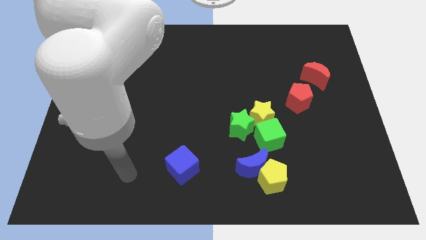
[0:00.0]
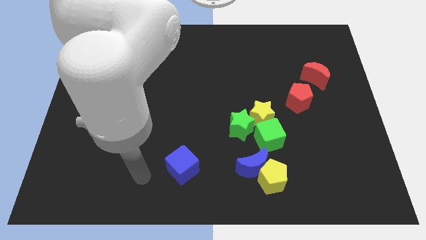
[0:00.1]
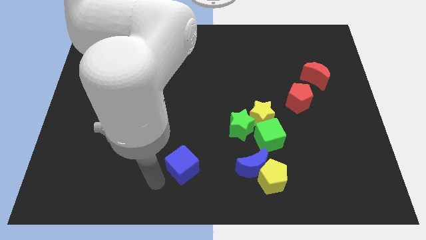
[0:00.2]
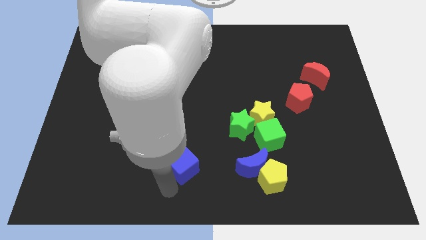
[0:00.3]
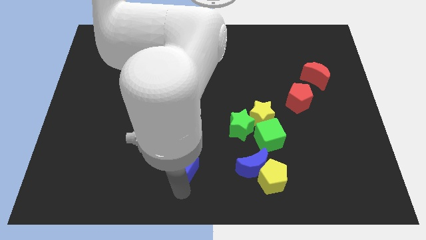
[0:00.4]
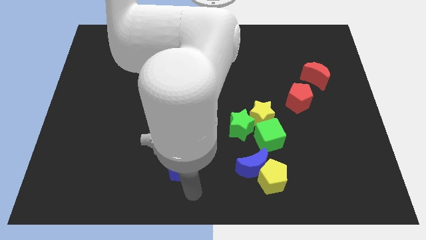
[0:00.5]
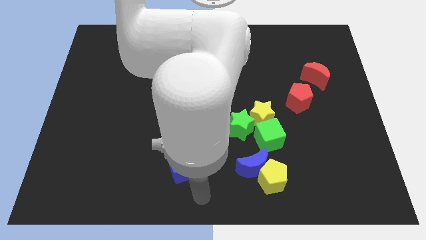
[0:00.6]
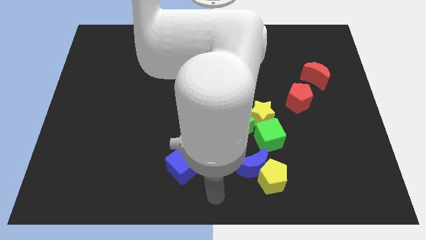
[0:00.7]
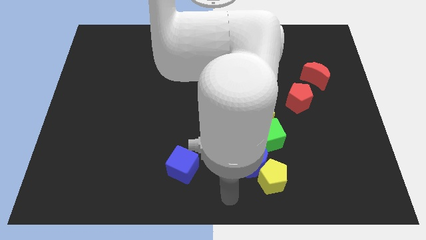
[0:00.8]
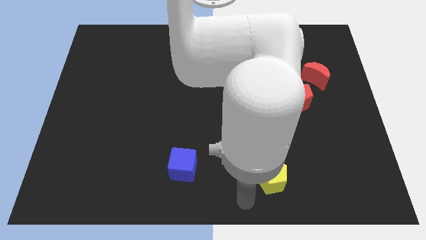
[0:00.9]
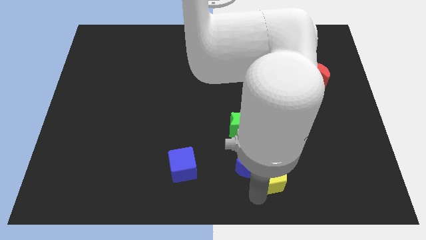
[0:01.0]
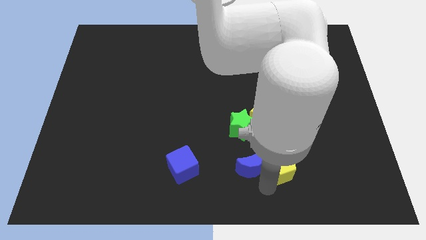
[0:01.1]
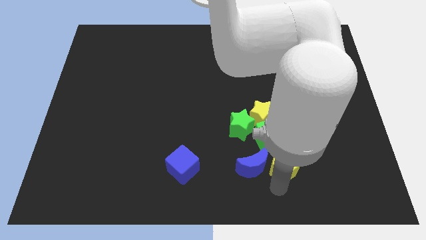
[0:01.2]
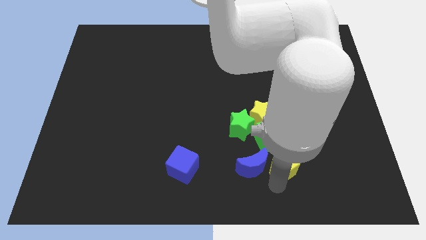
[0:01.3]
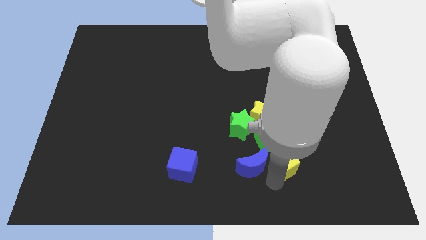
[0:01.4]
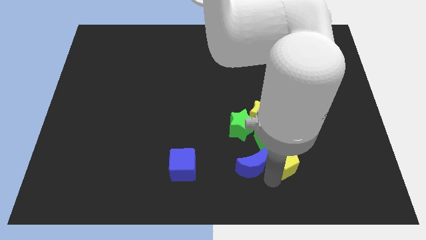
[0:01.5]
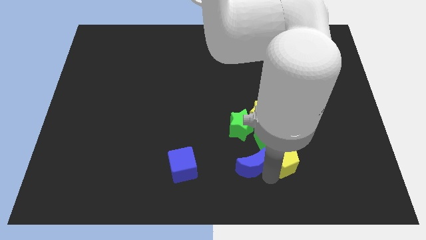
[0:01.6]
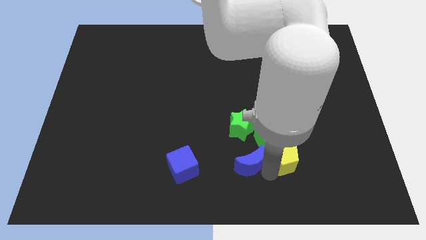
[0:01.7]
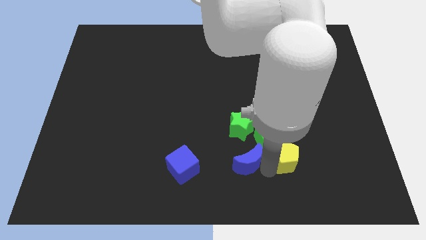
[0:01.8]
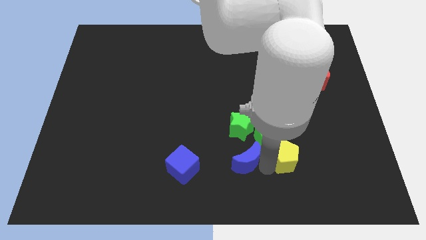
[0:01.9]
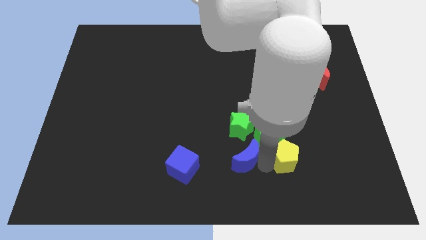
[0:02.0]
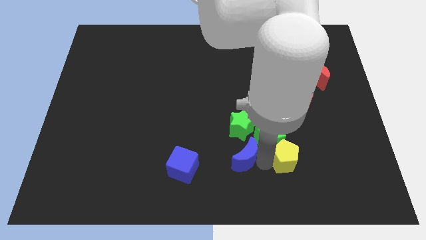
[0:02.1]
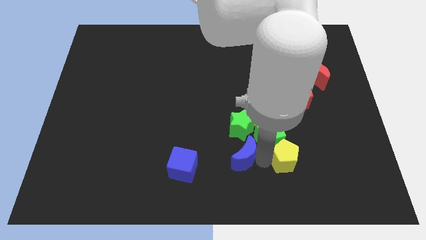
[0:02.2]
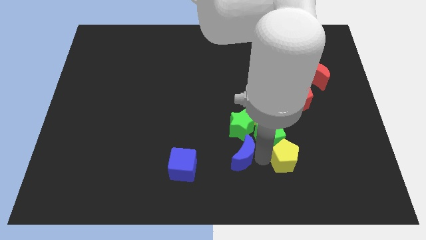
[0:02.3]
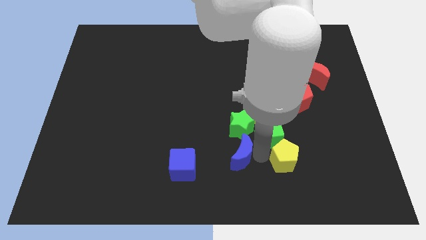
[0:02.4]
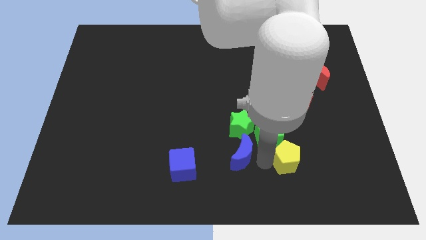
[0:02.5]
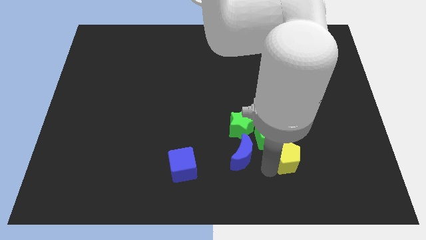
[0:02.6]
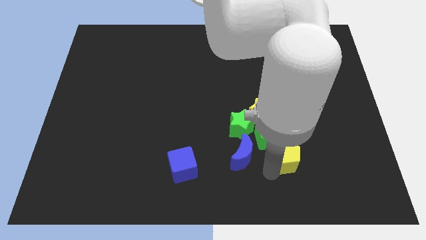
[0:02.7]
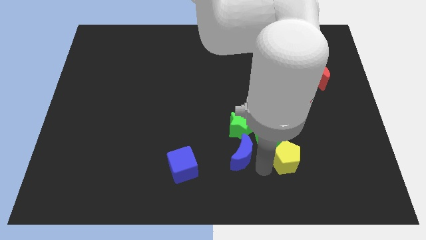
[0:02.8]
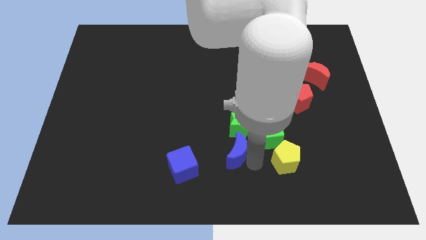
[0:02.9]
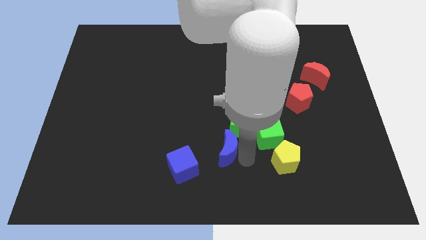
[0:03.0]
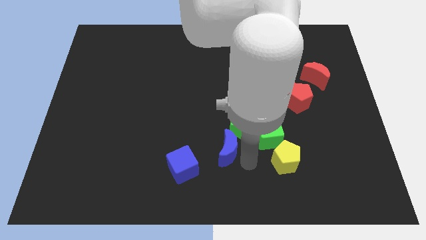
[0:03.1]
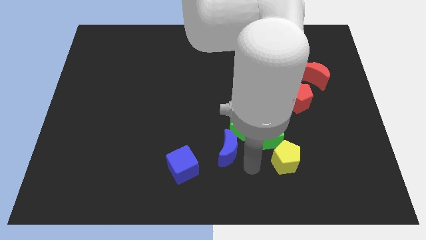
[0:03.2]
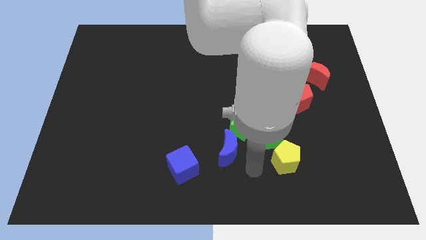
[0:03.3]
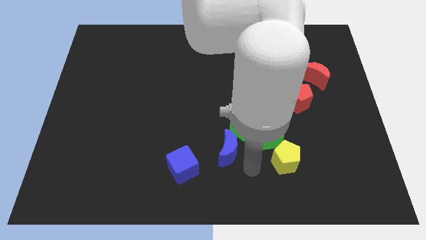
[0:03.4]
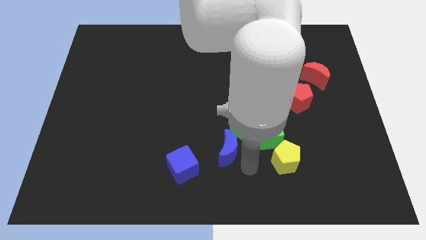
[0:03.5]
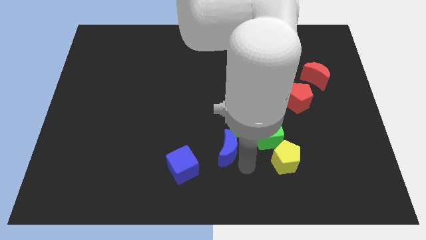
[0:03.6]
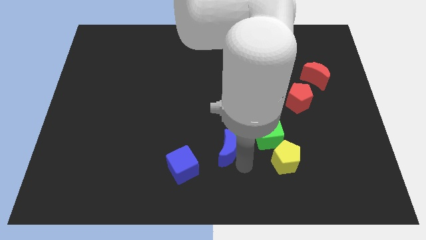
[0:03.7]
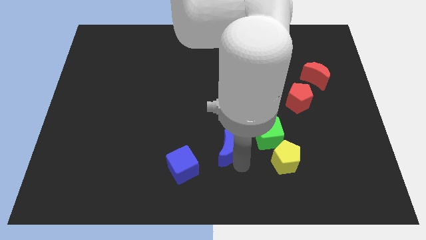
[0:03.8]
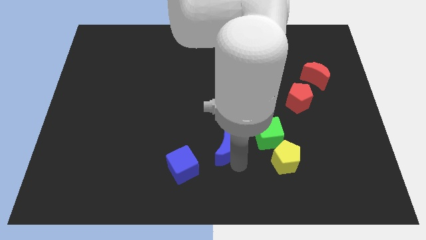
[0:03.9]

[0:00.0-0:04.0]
push the blue moon up and to the left diagonally slightly

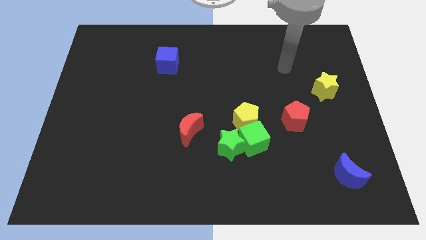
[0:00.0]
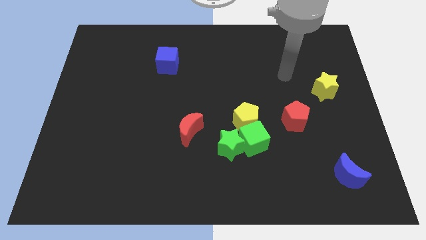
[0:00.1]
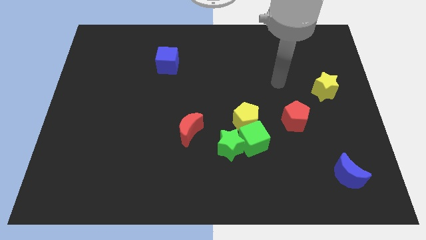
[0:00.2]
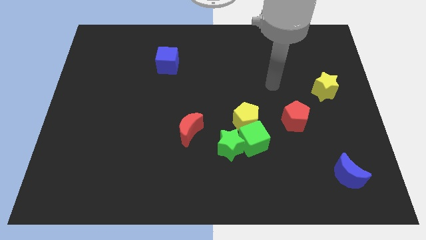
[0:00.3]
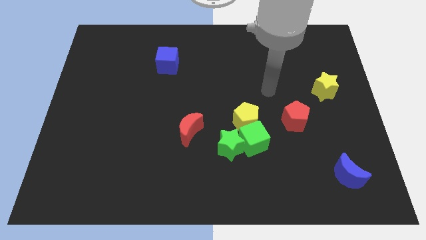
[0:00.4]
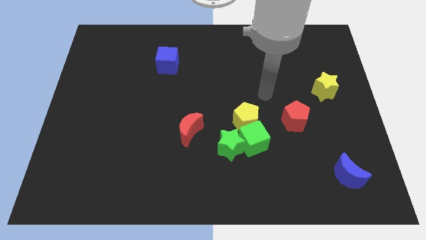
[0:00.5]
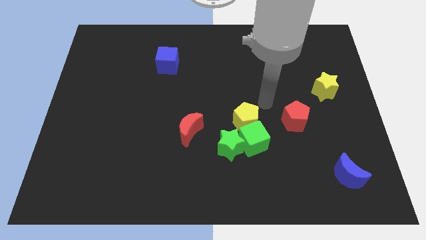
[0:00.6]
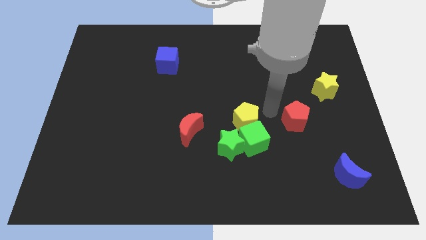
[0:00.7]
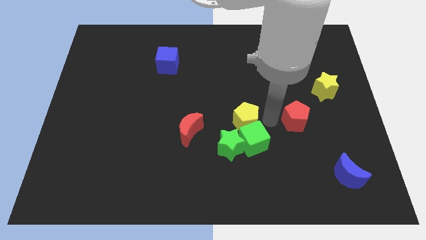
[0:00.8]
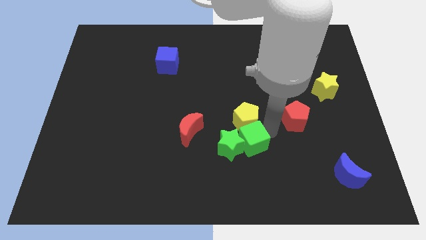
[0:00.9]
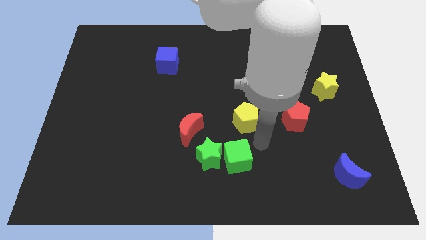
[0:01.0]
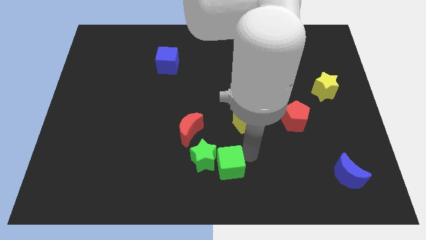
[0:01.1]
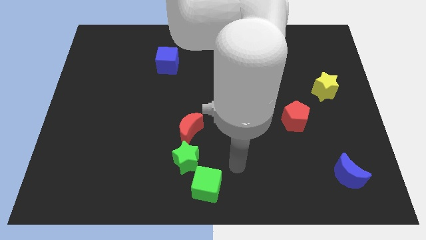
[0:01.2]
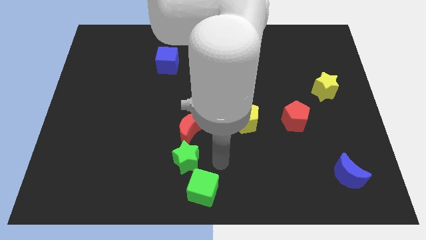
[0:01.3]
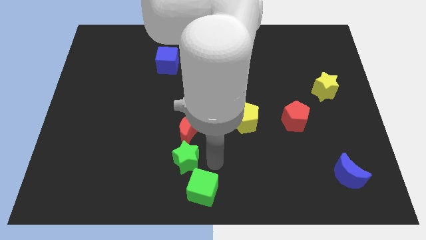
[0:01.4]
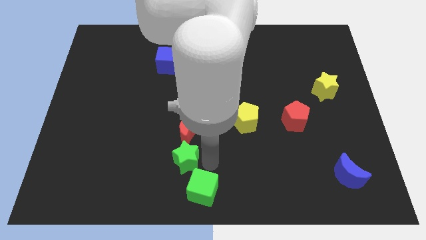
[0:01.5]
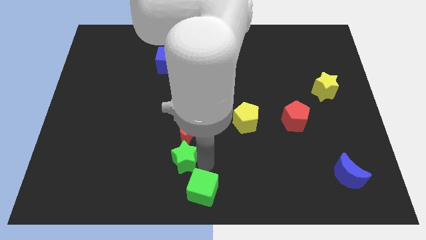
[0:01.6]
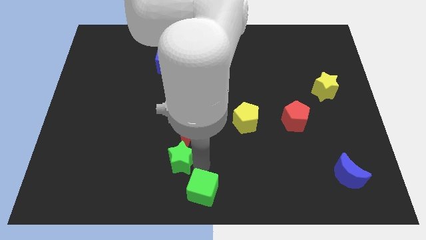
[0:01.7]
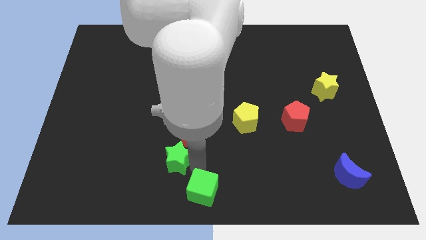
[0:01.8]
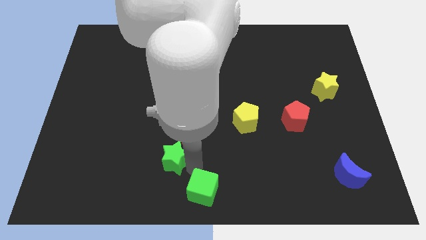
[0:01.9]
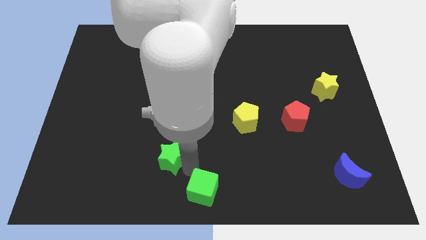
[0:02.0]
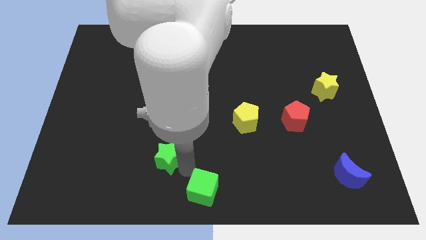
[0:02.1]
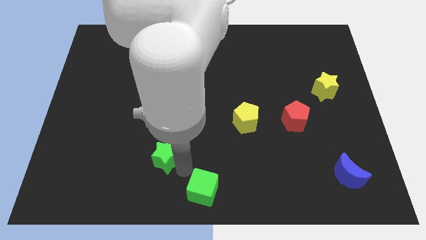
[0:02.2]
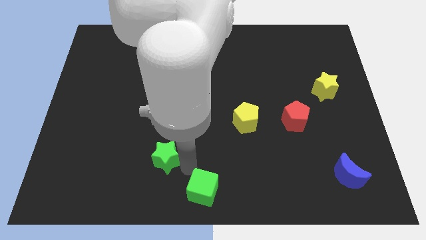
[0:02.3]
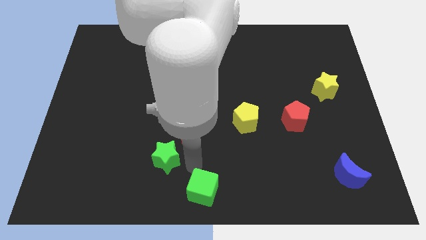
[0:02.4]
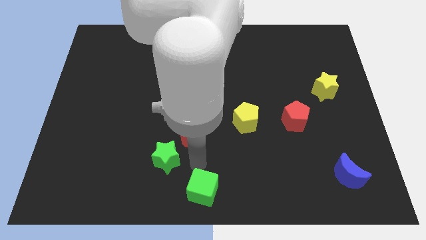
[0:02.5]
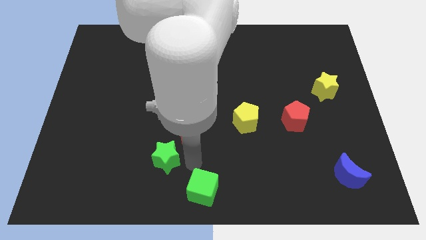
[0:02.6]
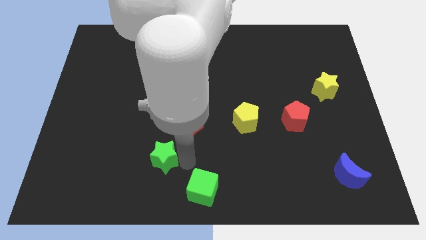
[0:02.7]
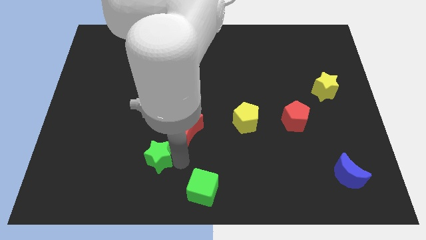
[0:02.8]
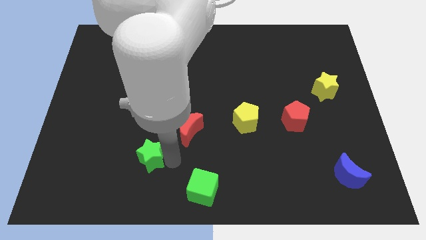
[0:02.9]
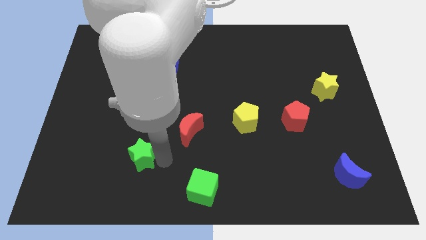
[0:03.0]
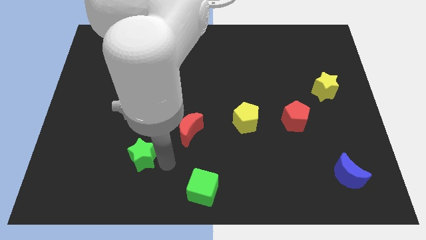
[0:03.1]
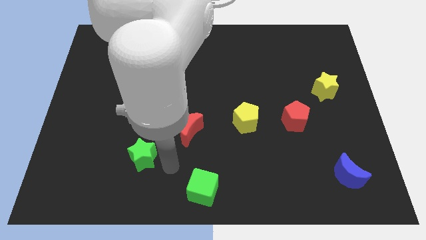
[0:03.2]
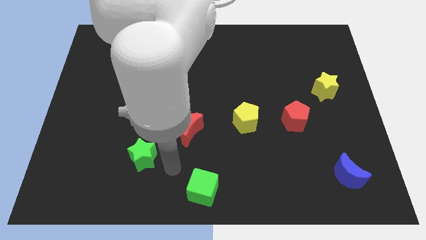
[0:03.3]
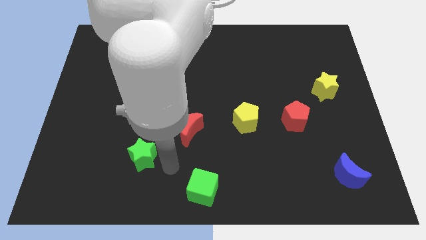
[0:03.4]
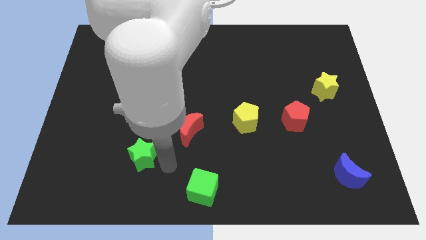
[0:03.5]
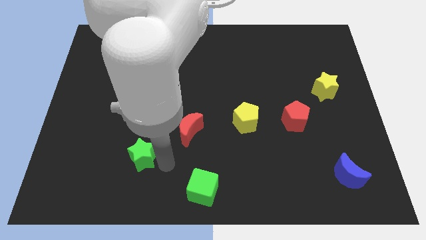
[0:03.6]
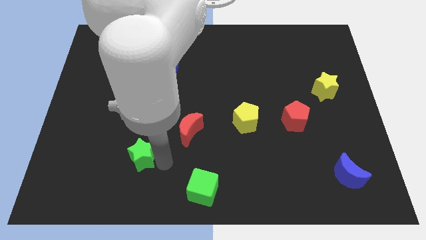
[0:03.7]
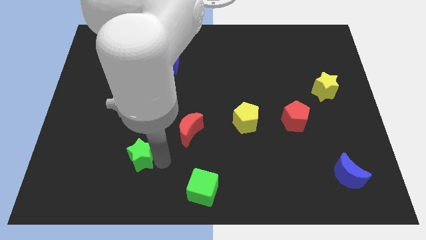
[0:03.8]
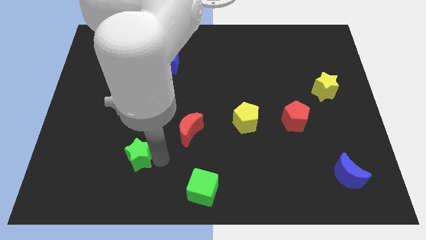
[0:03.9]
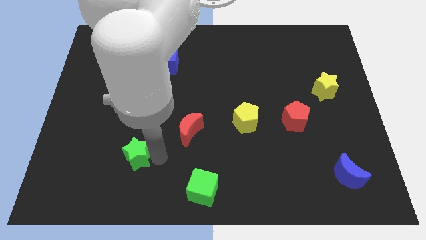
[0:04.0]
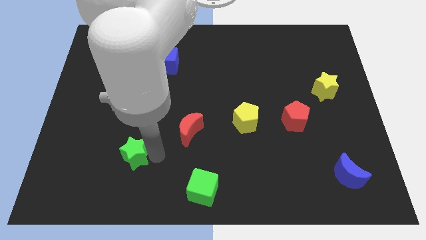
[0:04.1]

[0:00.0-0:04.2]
push the green star to the left

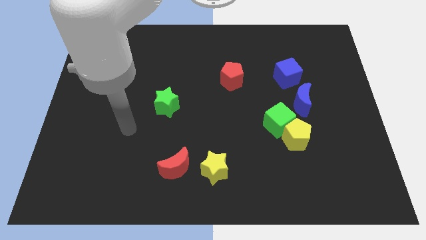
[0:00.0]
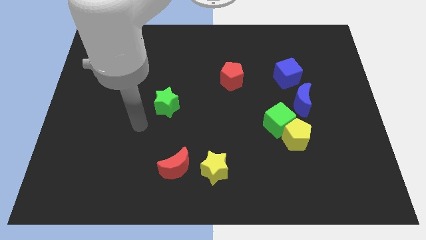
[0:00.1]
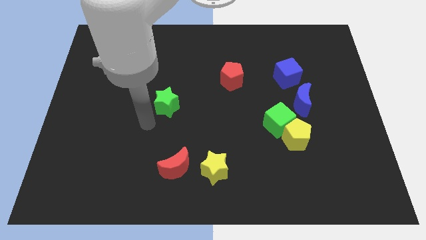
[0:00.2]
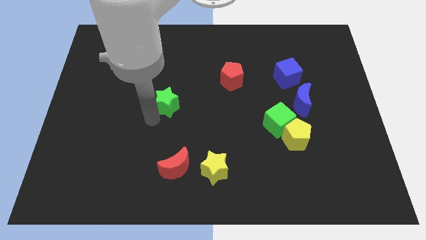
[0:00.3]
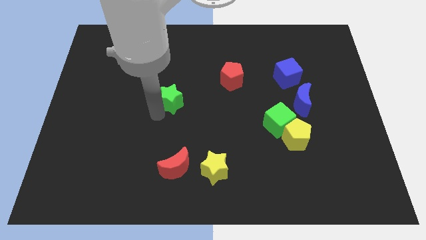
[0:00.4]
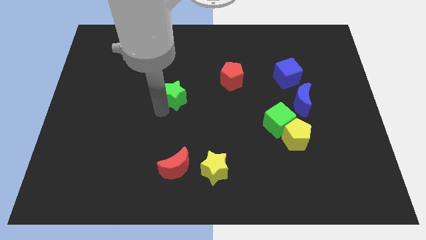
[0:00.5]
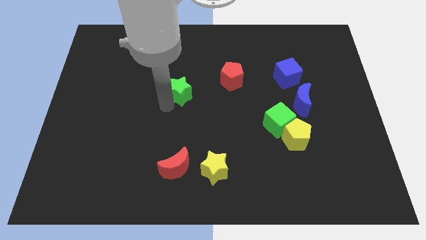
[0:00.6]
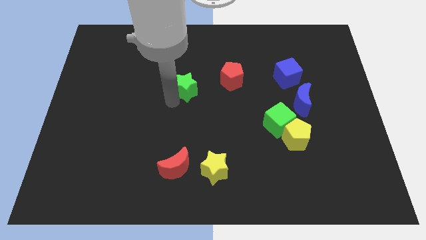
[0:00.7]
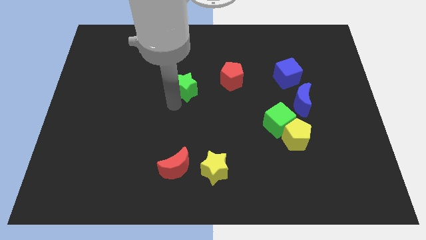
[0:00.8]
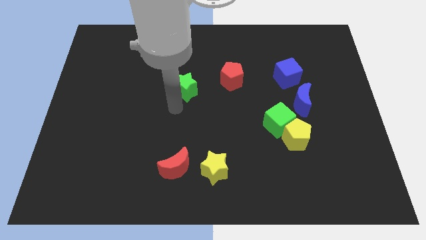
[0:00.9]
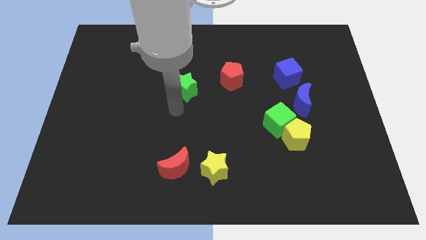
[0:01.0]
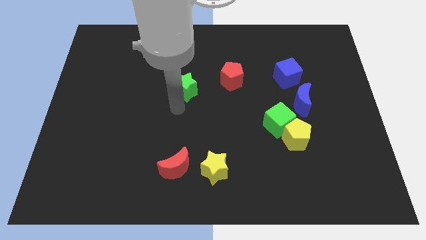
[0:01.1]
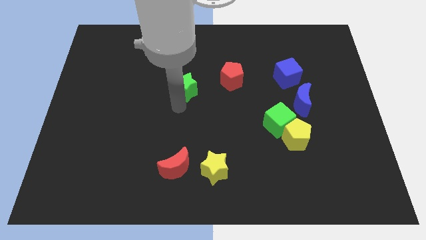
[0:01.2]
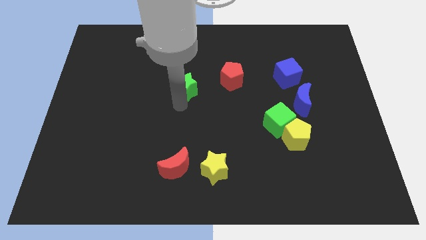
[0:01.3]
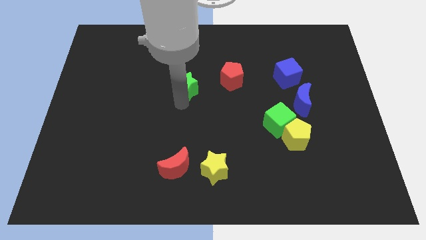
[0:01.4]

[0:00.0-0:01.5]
slightly push the green star diagonally up and to the right
